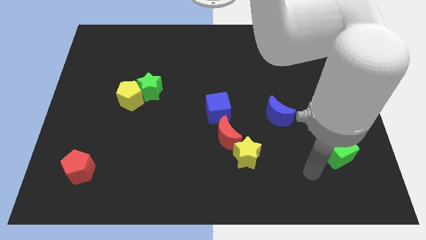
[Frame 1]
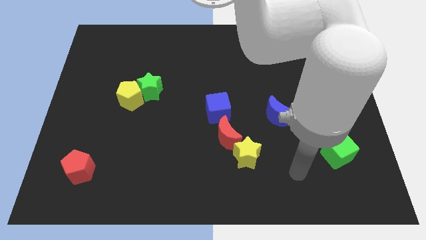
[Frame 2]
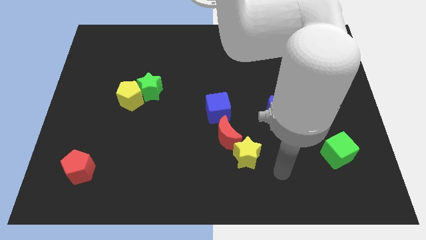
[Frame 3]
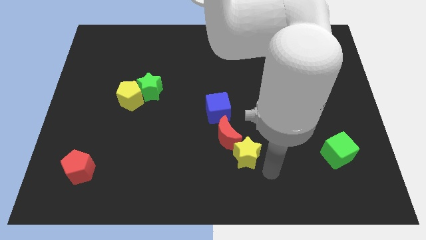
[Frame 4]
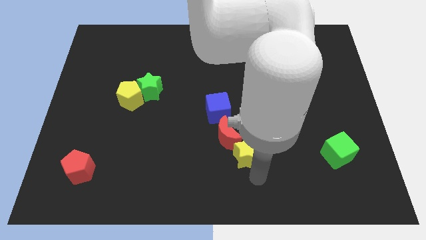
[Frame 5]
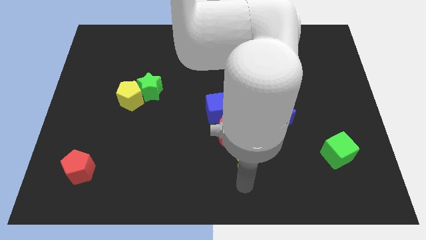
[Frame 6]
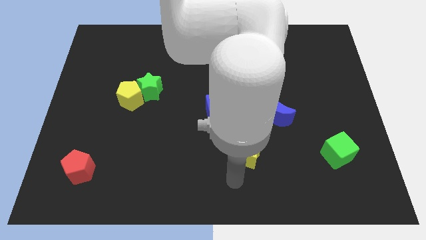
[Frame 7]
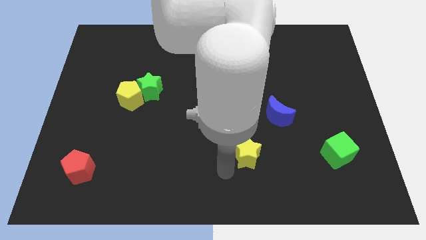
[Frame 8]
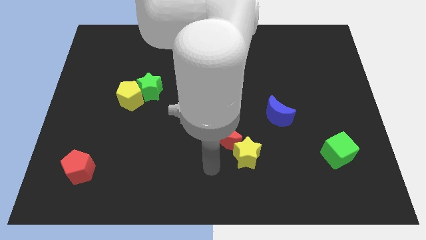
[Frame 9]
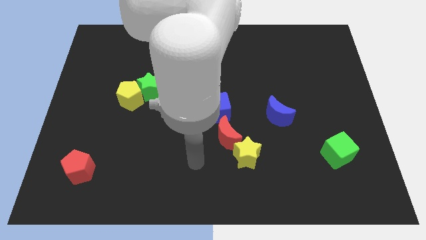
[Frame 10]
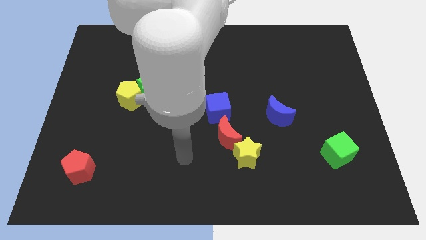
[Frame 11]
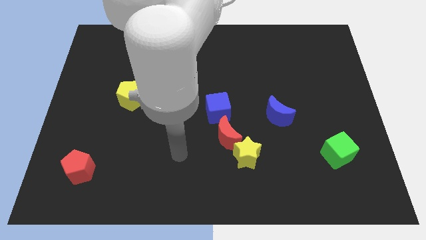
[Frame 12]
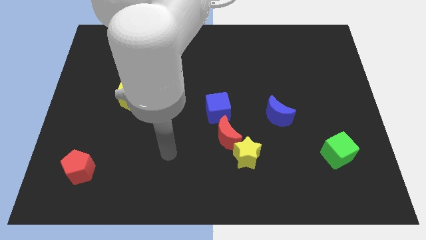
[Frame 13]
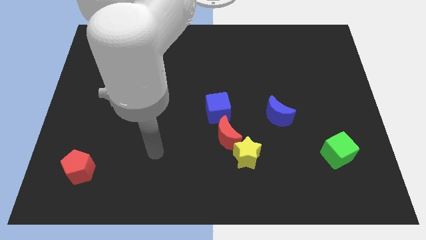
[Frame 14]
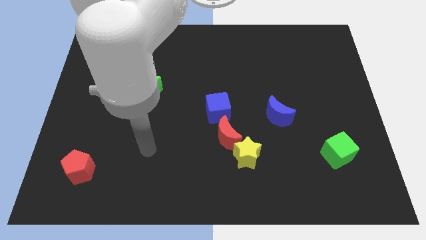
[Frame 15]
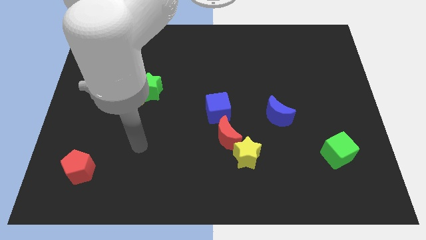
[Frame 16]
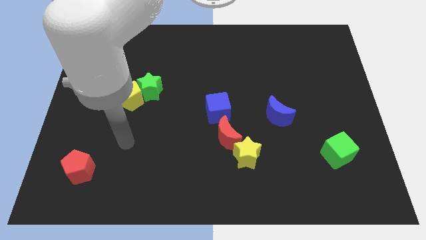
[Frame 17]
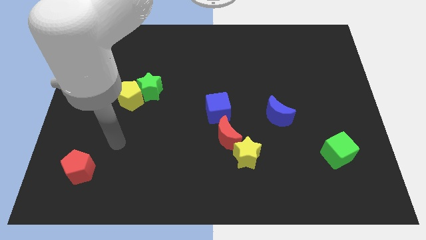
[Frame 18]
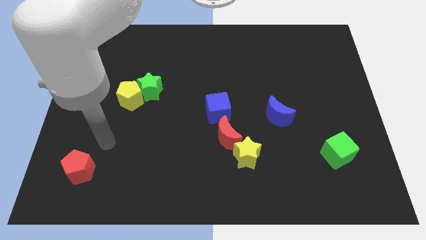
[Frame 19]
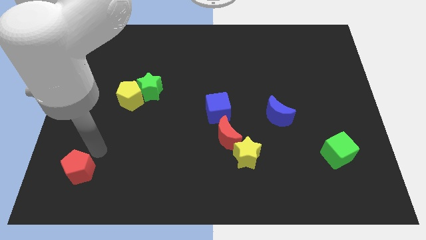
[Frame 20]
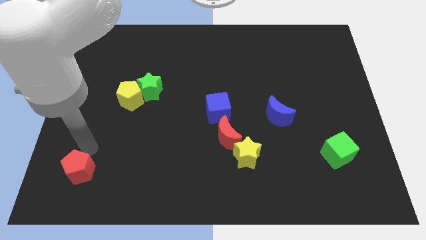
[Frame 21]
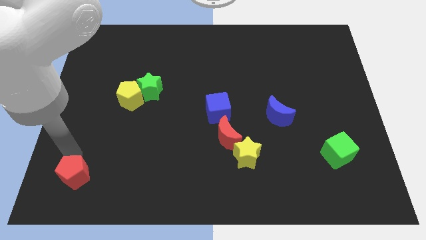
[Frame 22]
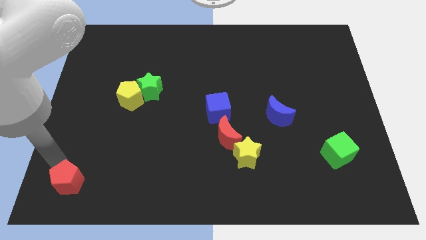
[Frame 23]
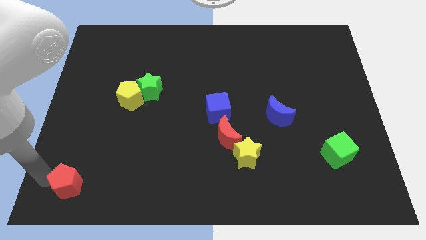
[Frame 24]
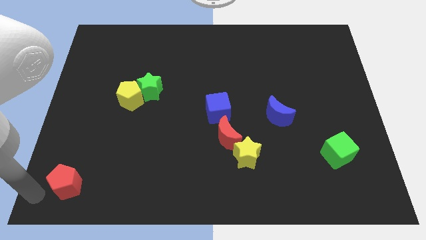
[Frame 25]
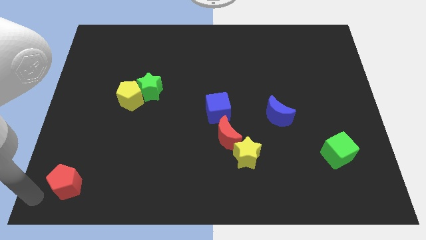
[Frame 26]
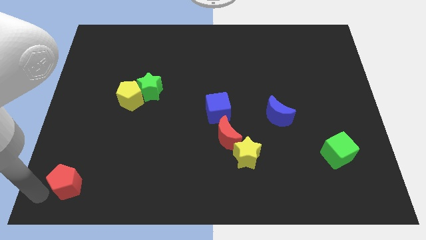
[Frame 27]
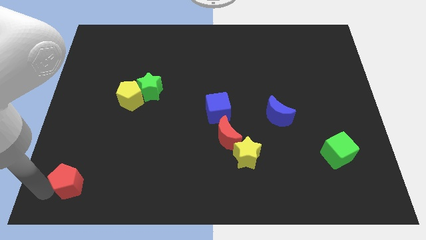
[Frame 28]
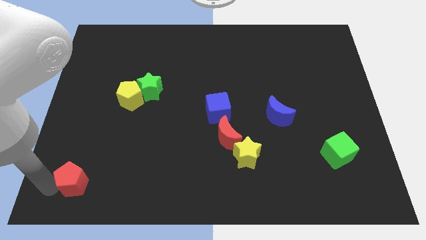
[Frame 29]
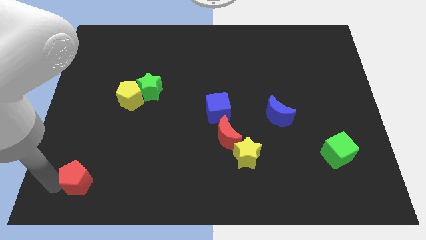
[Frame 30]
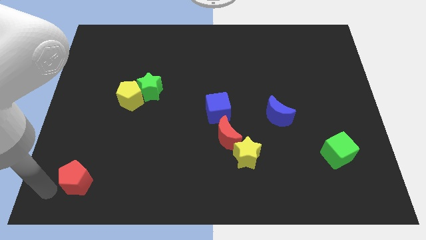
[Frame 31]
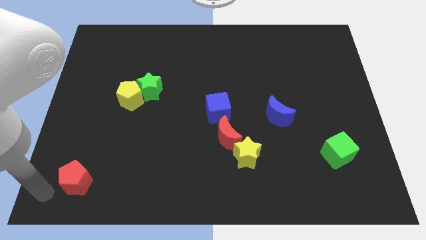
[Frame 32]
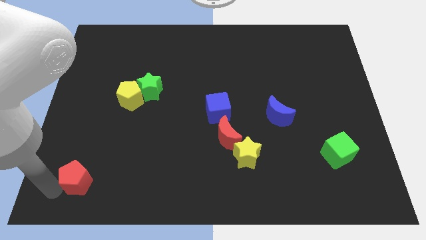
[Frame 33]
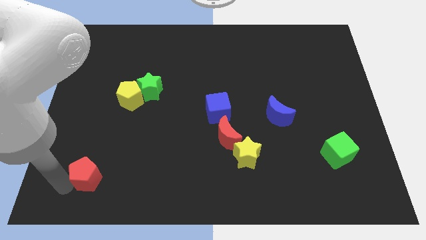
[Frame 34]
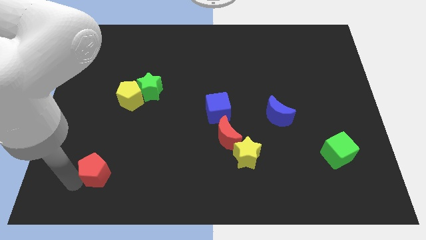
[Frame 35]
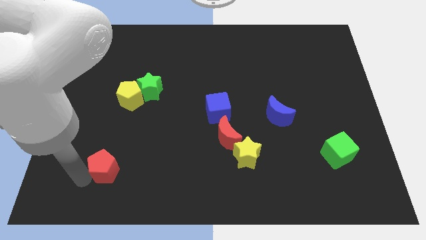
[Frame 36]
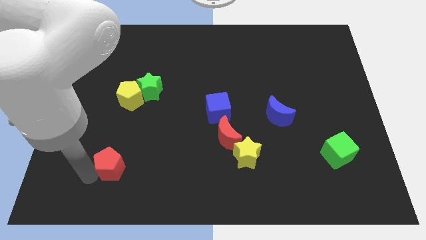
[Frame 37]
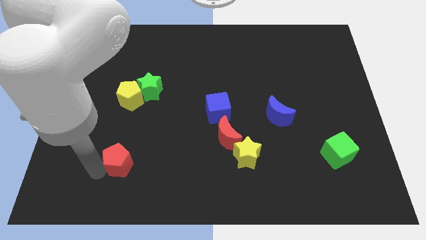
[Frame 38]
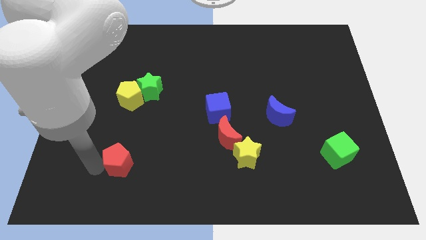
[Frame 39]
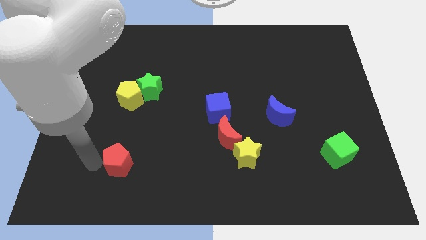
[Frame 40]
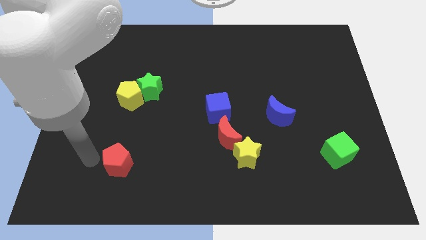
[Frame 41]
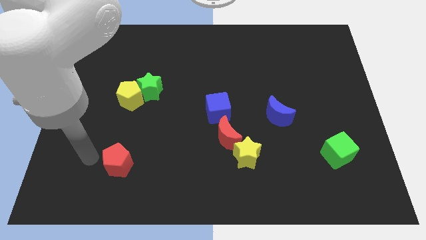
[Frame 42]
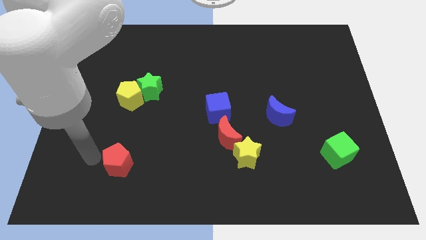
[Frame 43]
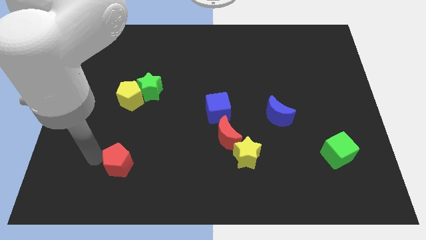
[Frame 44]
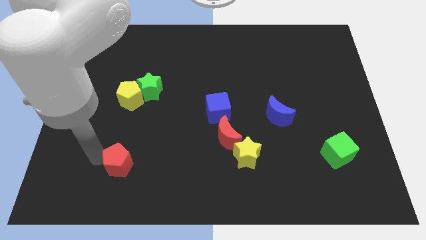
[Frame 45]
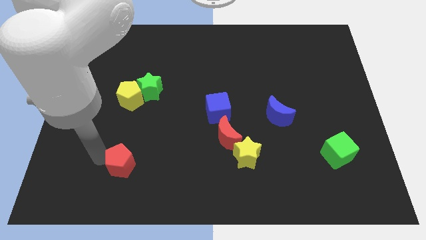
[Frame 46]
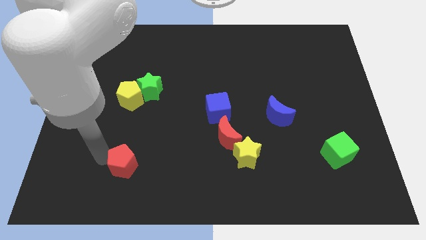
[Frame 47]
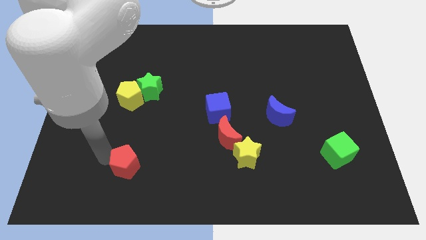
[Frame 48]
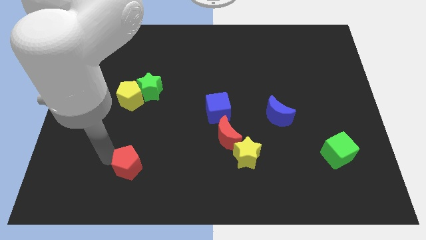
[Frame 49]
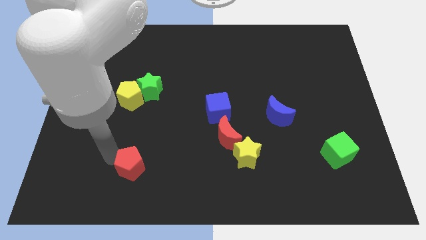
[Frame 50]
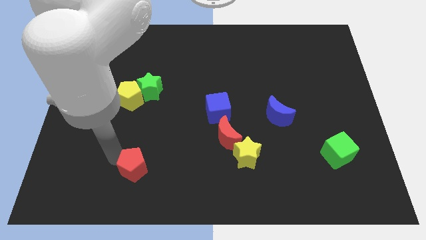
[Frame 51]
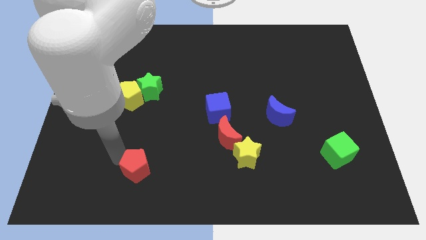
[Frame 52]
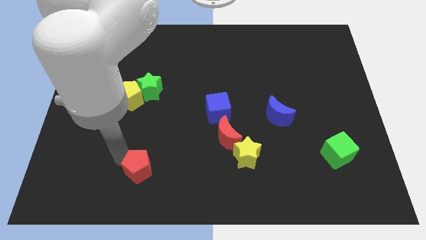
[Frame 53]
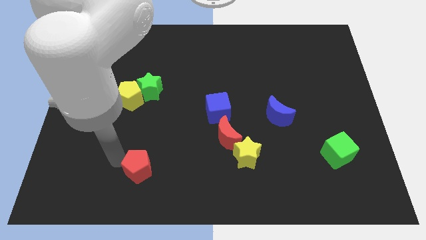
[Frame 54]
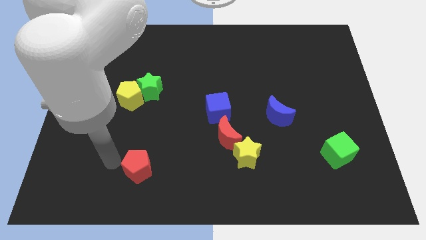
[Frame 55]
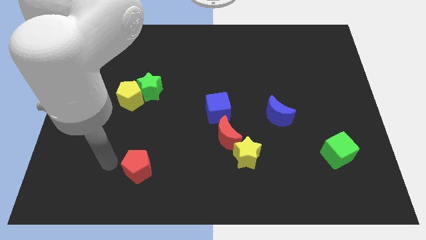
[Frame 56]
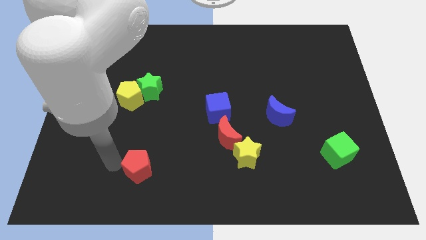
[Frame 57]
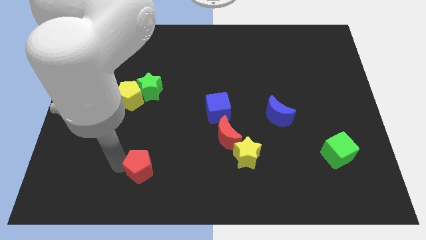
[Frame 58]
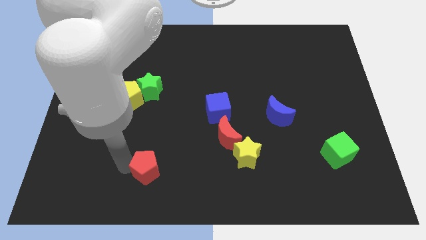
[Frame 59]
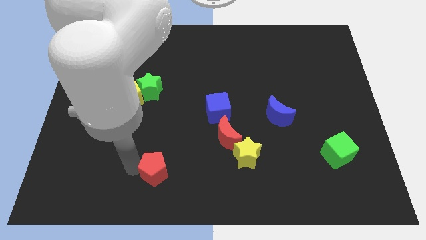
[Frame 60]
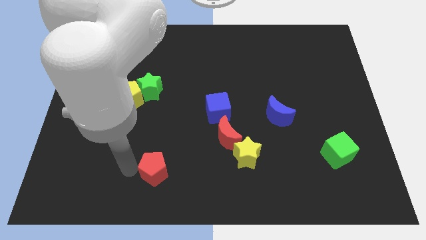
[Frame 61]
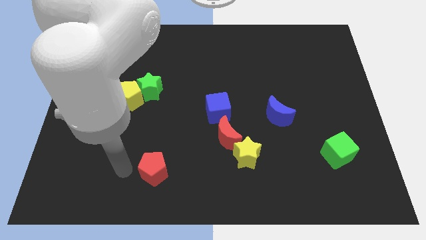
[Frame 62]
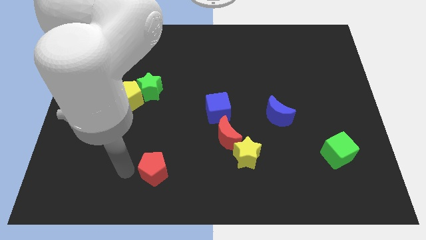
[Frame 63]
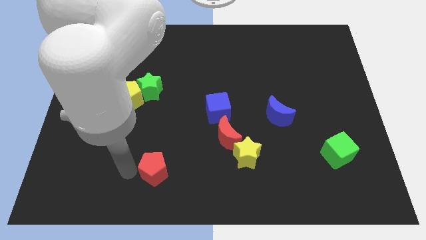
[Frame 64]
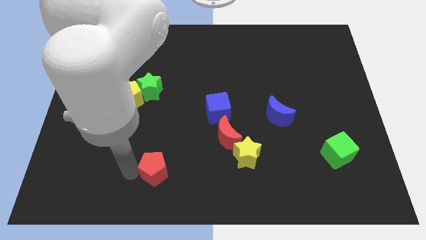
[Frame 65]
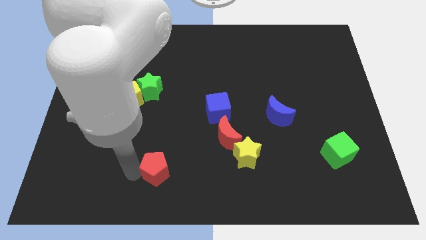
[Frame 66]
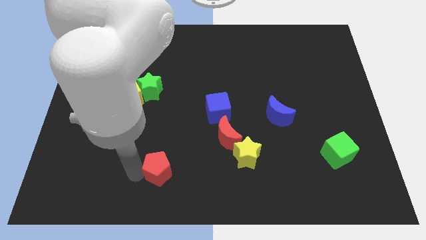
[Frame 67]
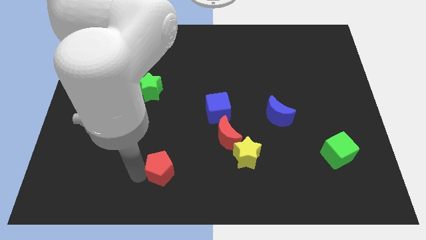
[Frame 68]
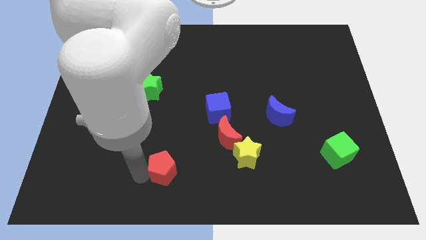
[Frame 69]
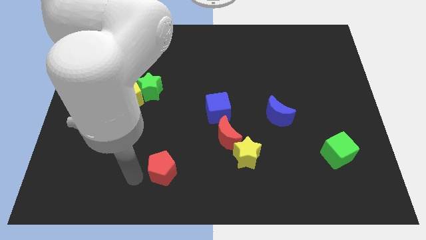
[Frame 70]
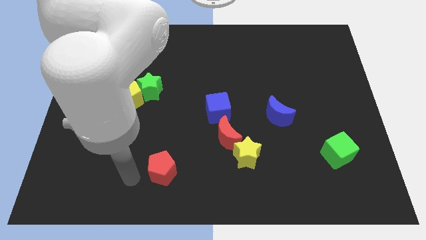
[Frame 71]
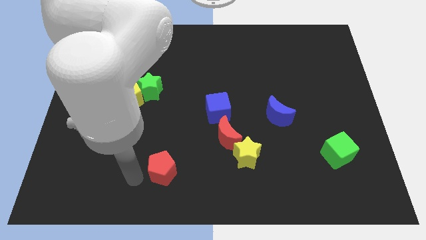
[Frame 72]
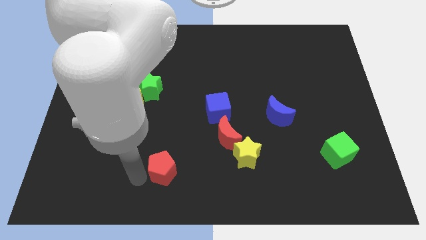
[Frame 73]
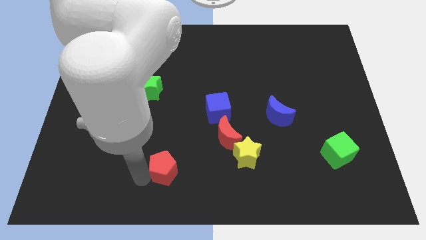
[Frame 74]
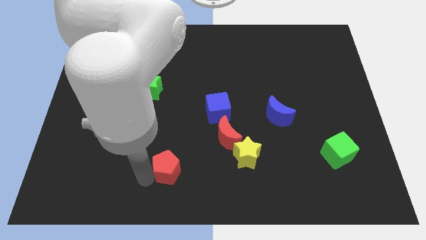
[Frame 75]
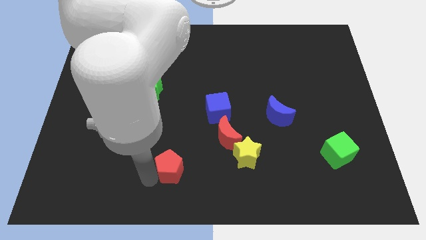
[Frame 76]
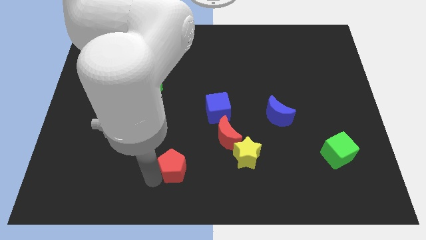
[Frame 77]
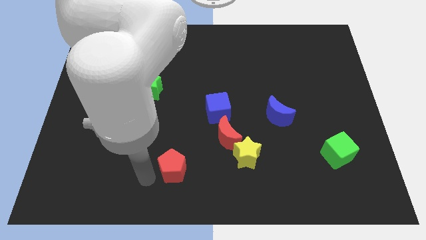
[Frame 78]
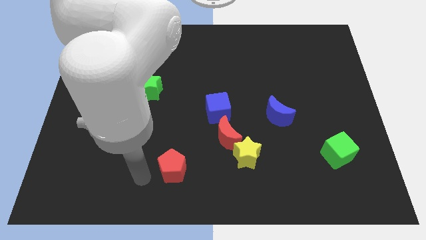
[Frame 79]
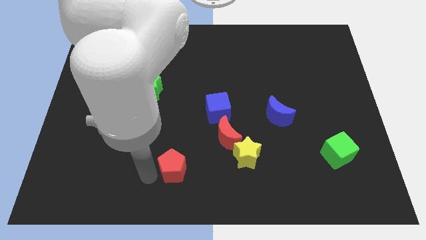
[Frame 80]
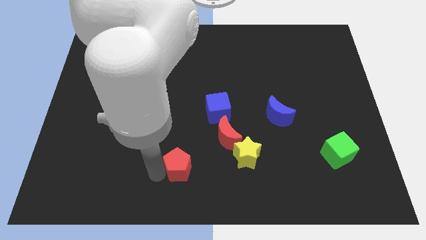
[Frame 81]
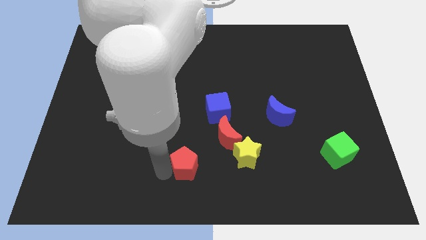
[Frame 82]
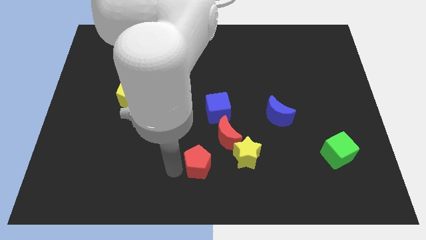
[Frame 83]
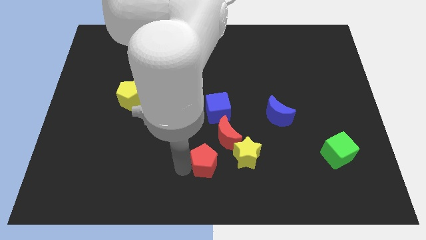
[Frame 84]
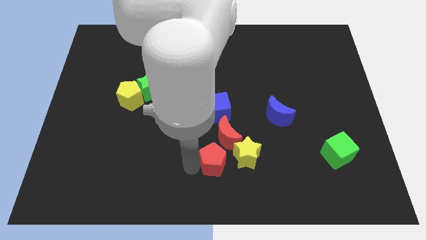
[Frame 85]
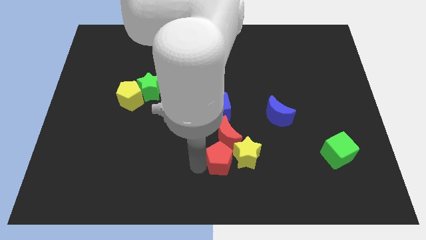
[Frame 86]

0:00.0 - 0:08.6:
move the red pentagon towards the yellow star
